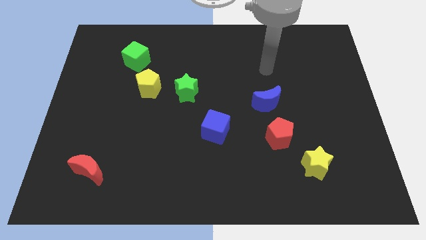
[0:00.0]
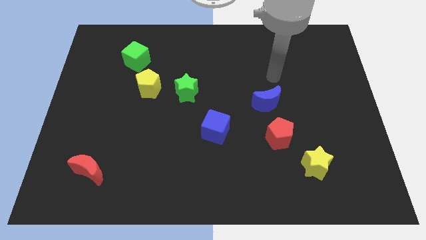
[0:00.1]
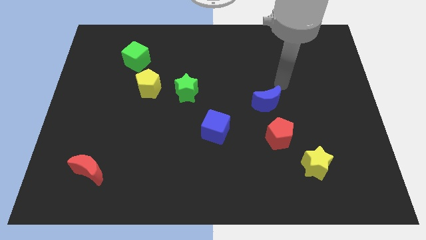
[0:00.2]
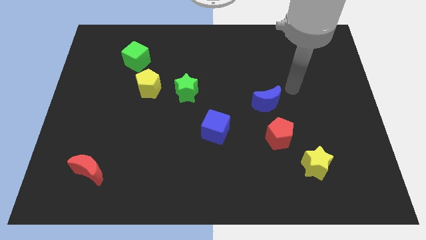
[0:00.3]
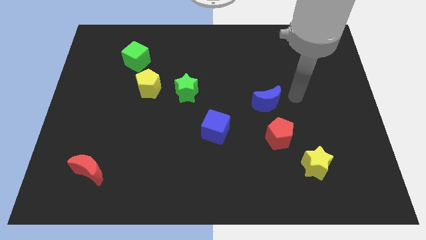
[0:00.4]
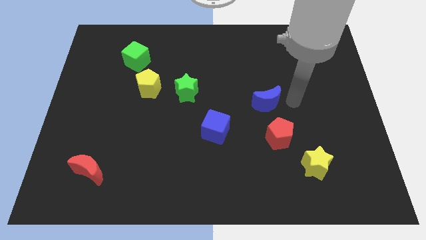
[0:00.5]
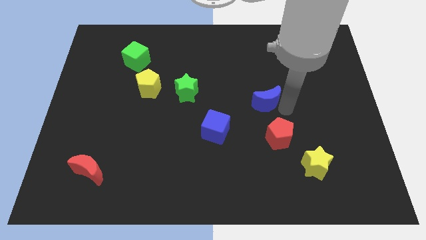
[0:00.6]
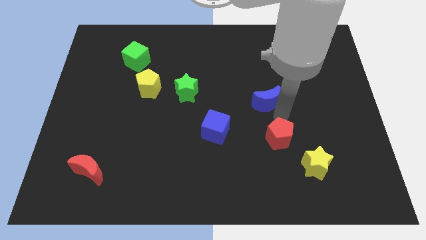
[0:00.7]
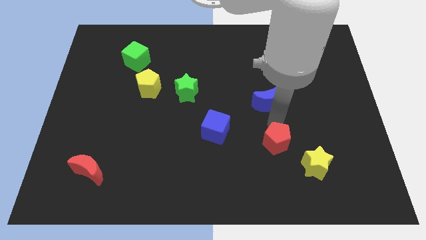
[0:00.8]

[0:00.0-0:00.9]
move the blue moon away from the red pentagon

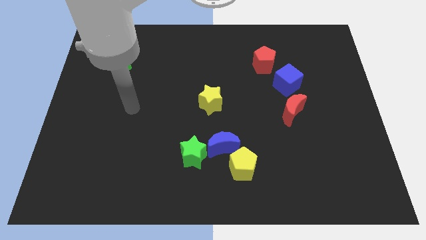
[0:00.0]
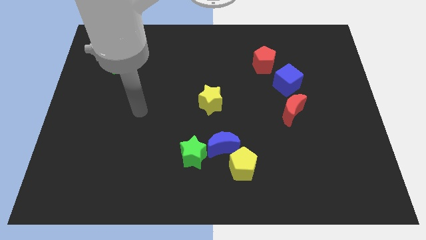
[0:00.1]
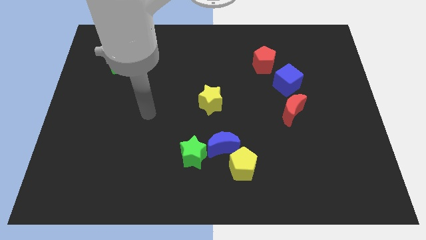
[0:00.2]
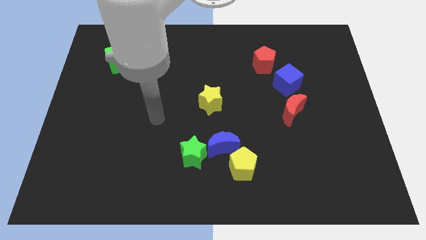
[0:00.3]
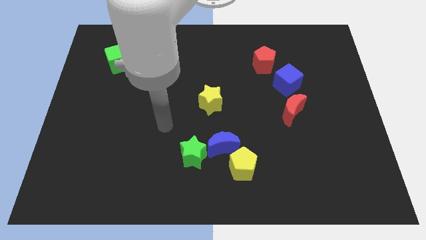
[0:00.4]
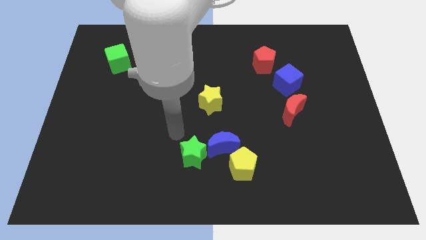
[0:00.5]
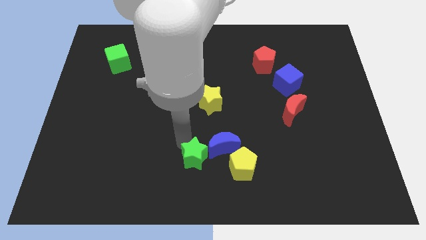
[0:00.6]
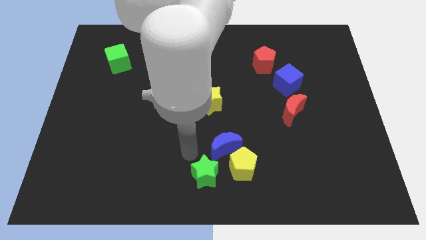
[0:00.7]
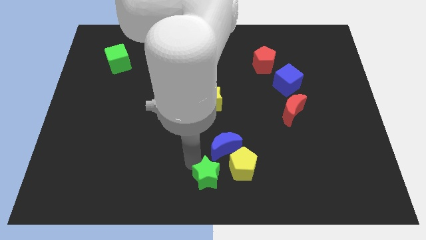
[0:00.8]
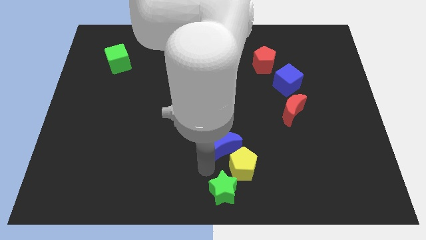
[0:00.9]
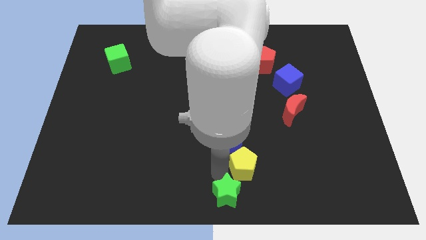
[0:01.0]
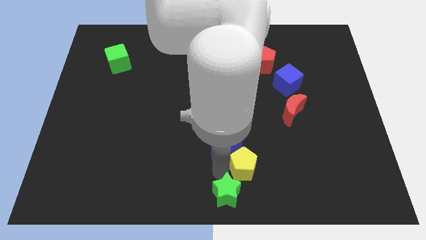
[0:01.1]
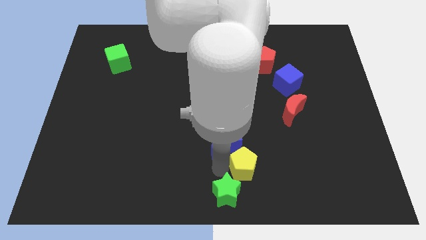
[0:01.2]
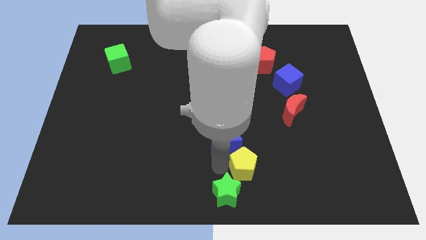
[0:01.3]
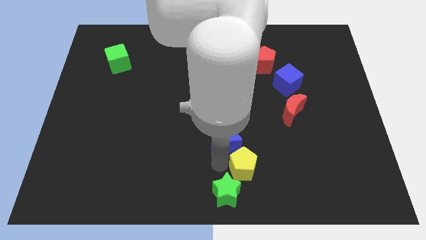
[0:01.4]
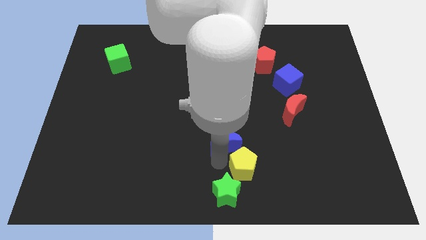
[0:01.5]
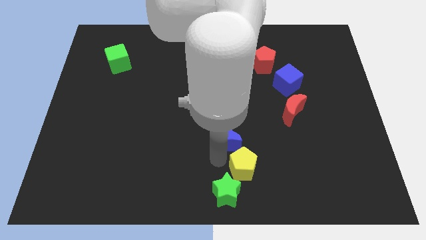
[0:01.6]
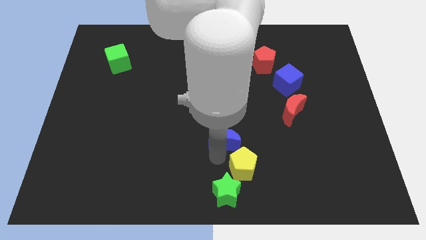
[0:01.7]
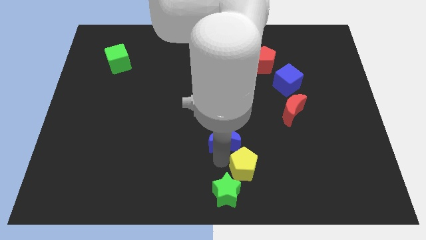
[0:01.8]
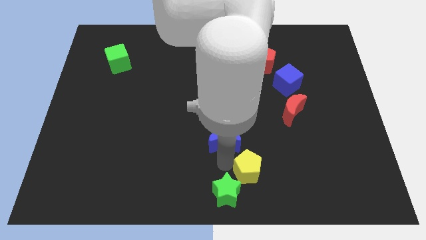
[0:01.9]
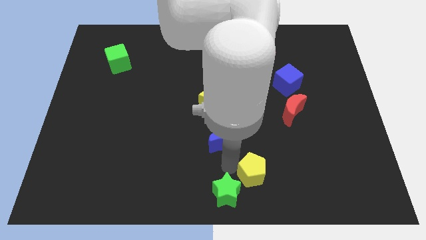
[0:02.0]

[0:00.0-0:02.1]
move the blue moon away from the yellow pentagon and green star

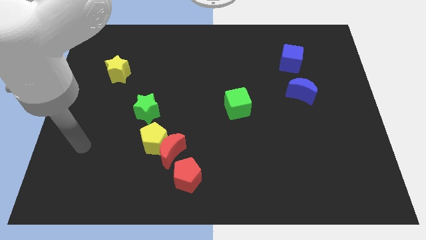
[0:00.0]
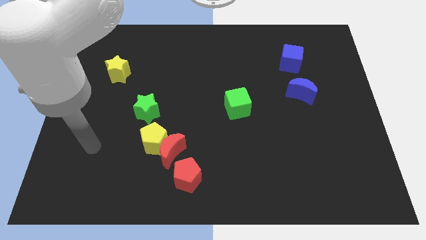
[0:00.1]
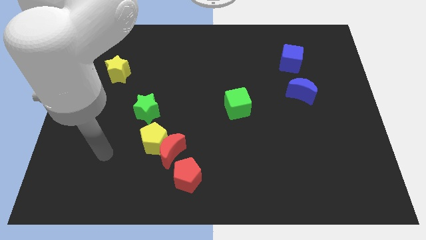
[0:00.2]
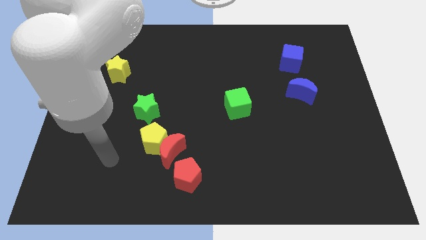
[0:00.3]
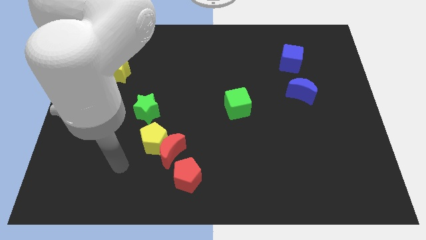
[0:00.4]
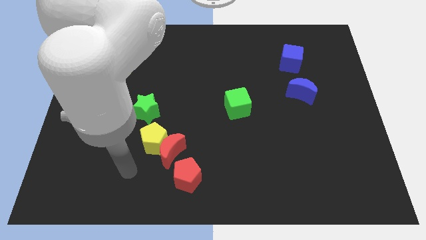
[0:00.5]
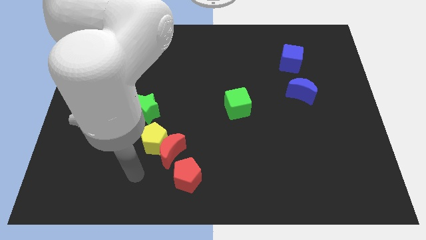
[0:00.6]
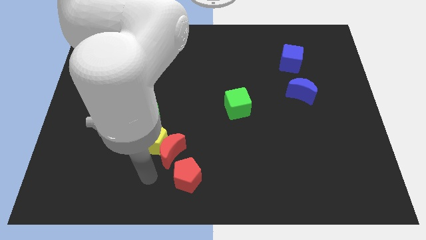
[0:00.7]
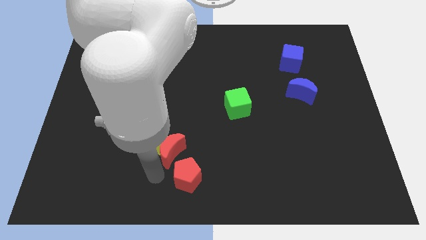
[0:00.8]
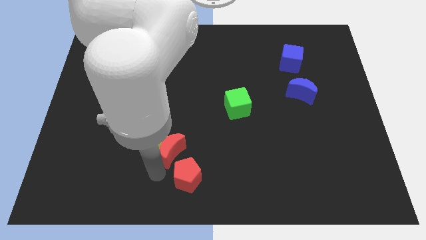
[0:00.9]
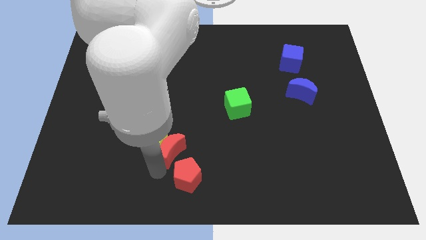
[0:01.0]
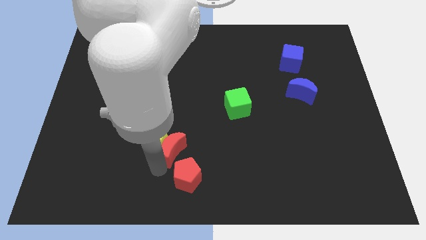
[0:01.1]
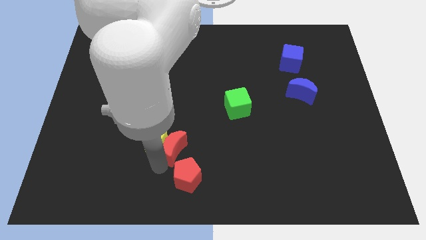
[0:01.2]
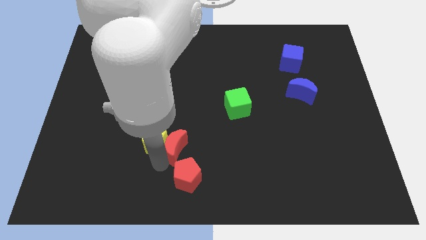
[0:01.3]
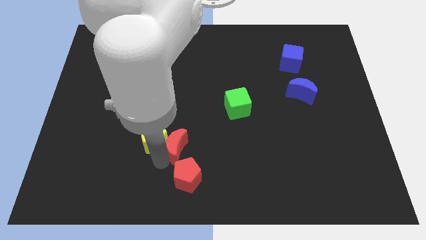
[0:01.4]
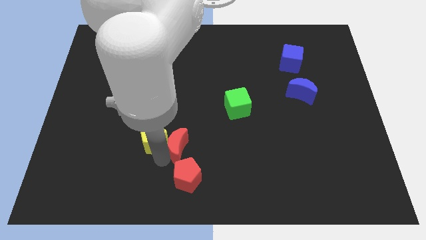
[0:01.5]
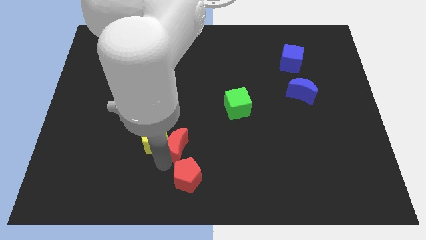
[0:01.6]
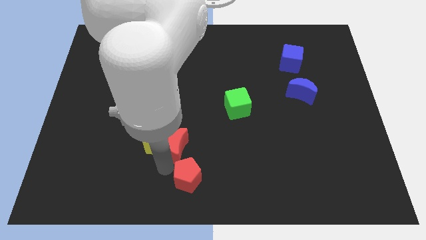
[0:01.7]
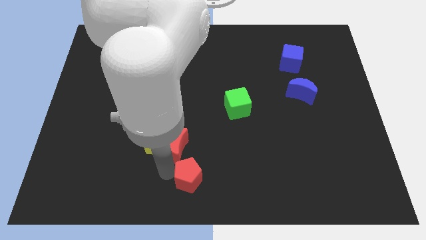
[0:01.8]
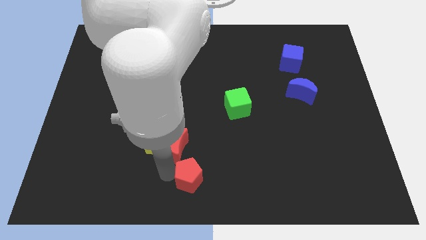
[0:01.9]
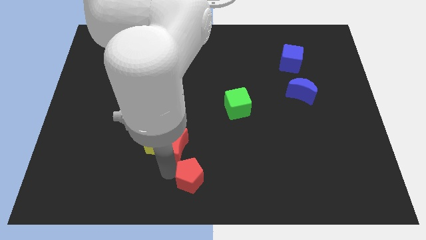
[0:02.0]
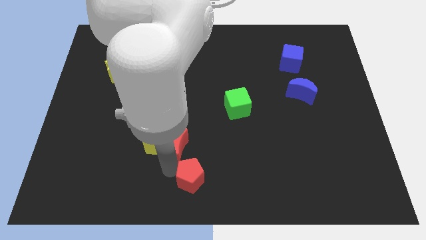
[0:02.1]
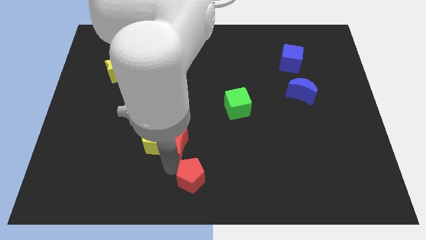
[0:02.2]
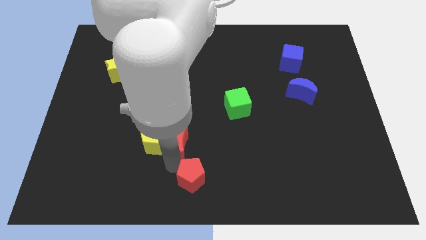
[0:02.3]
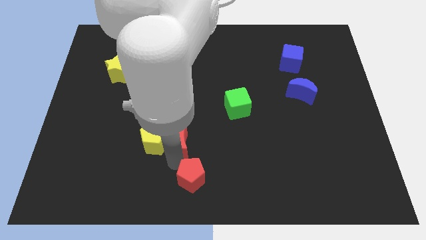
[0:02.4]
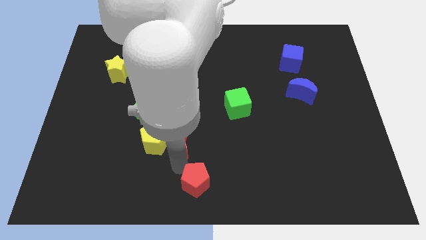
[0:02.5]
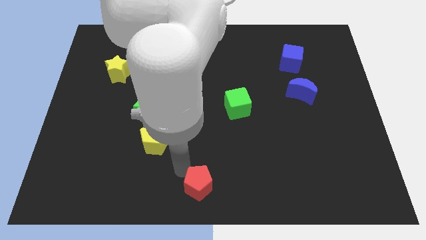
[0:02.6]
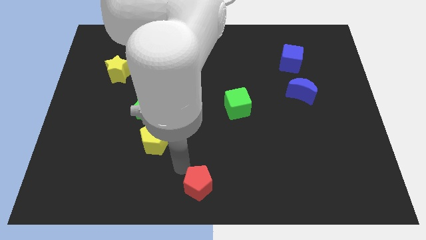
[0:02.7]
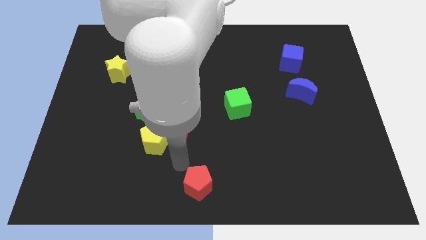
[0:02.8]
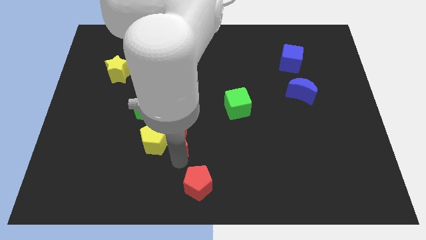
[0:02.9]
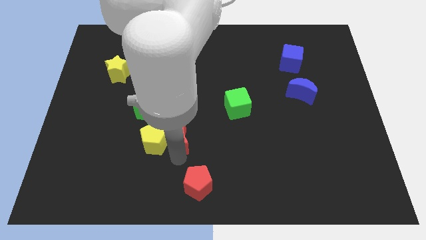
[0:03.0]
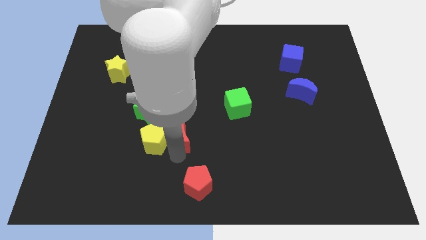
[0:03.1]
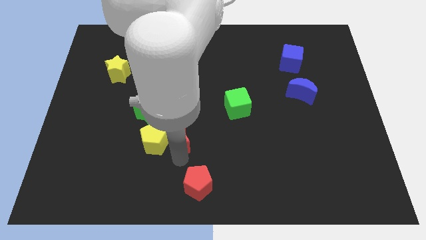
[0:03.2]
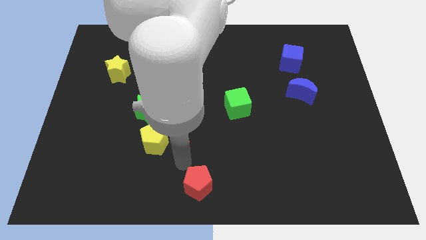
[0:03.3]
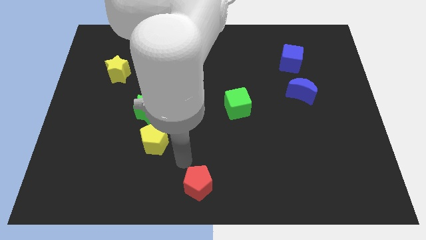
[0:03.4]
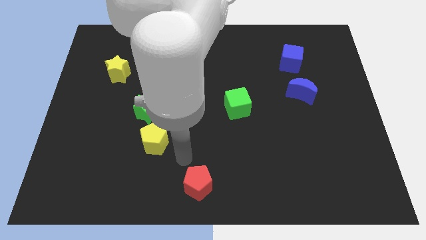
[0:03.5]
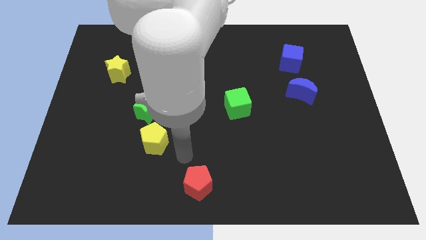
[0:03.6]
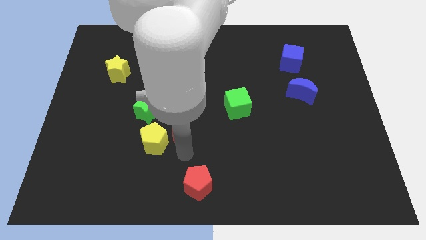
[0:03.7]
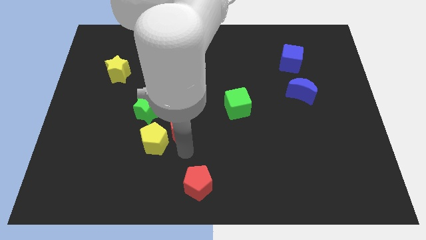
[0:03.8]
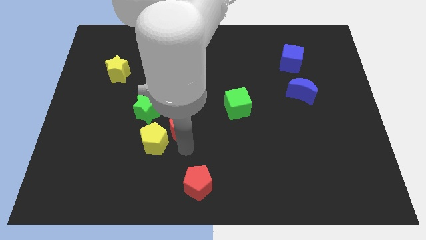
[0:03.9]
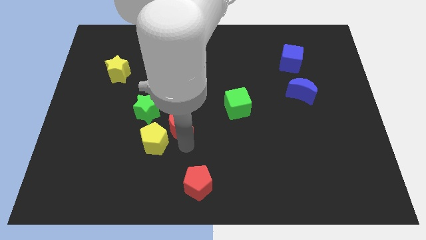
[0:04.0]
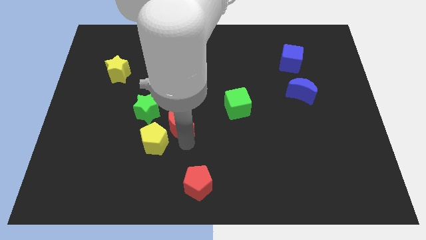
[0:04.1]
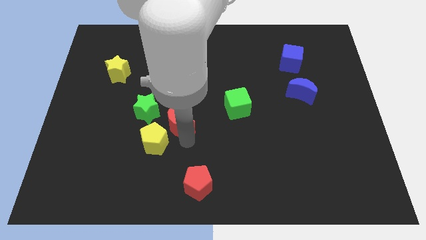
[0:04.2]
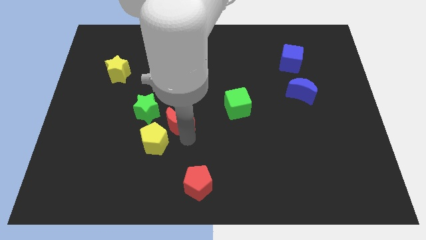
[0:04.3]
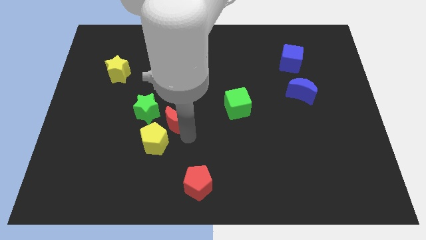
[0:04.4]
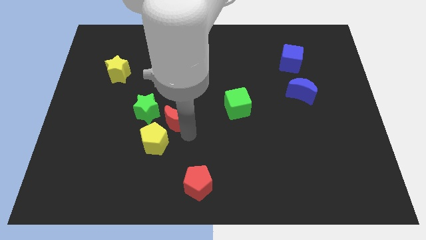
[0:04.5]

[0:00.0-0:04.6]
pull the red moon apart from the yellow pentagon and red pentagon

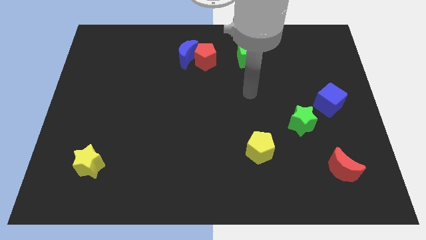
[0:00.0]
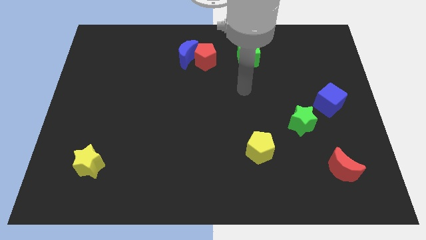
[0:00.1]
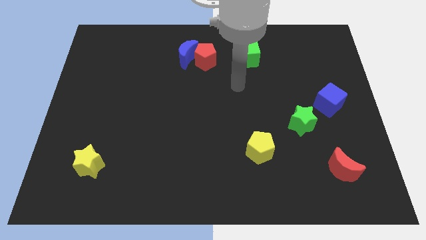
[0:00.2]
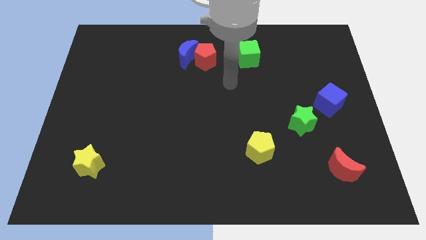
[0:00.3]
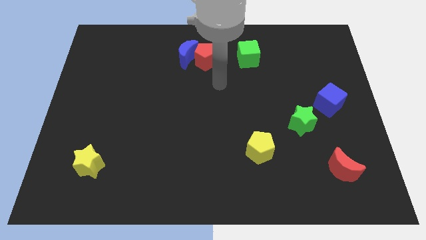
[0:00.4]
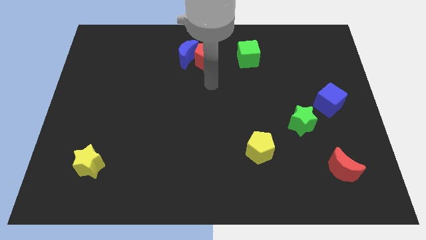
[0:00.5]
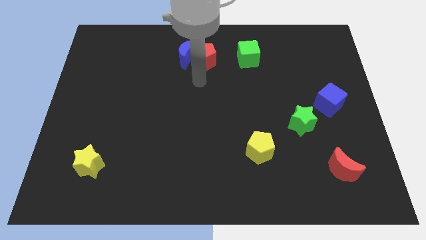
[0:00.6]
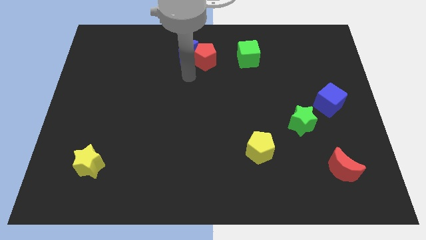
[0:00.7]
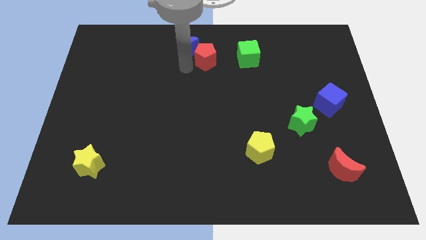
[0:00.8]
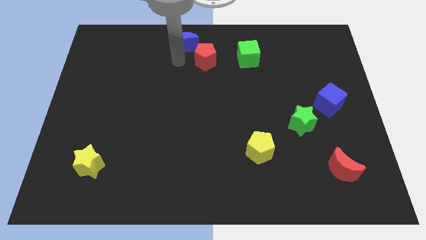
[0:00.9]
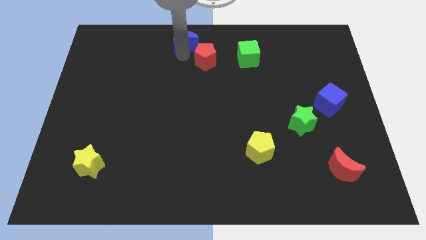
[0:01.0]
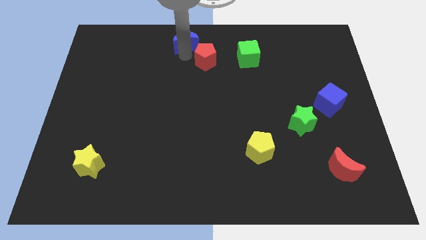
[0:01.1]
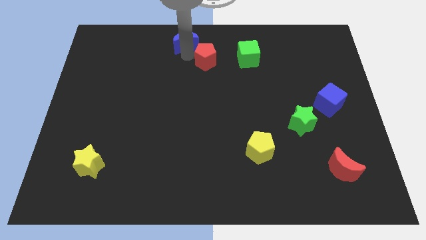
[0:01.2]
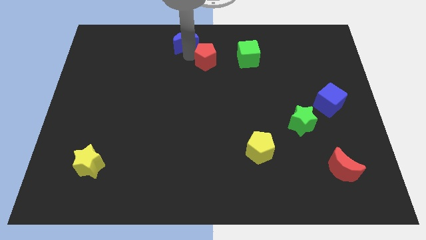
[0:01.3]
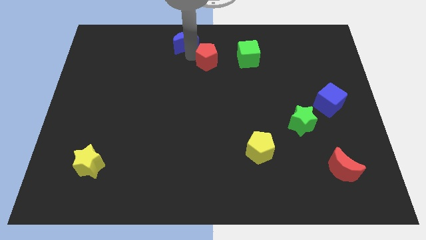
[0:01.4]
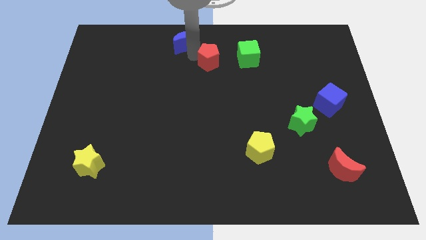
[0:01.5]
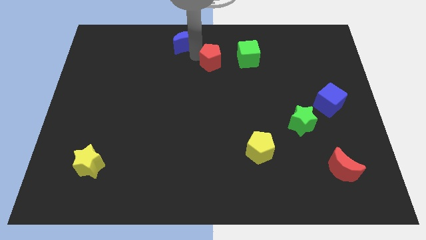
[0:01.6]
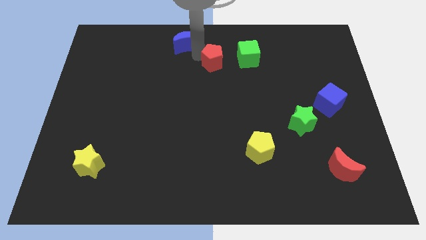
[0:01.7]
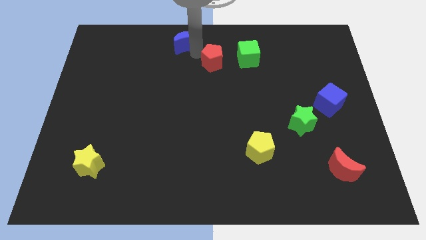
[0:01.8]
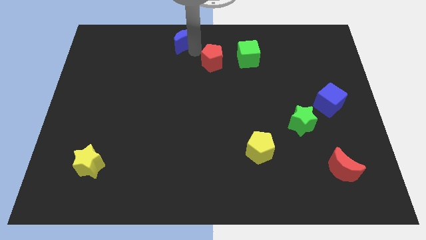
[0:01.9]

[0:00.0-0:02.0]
move the red pentagon away from the blue moon

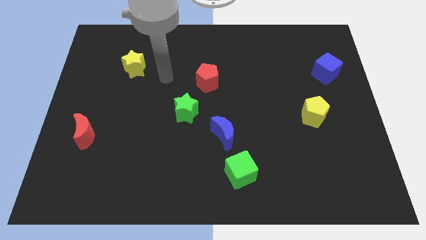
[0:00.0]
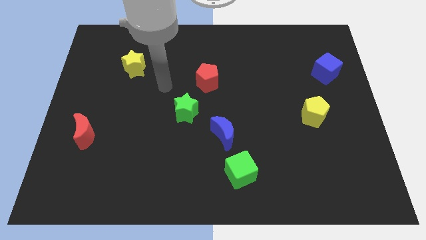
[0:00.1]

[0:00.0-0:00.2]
separate the blue moon from the green cube
